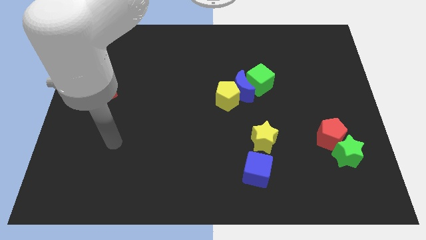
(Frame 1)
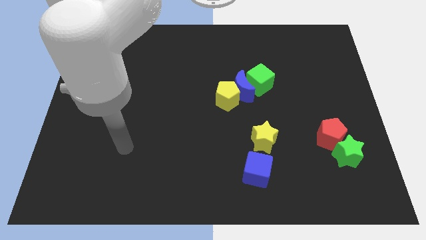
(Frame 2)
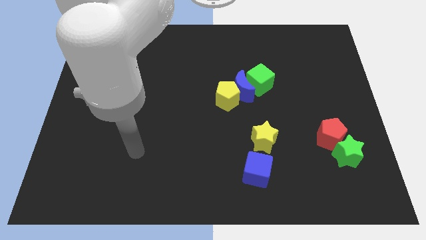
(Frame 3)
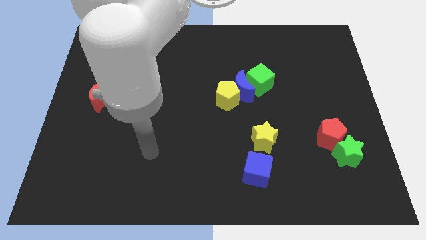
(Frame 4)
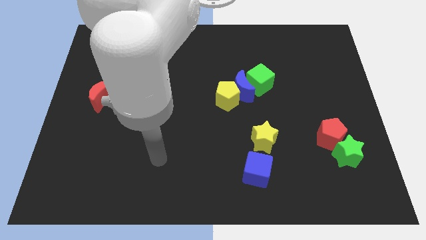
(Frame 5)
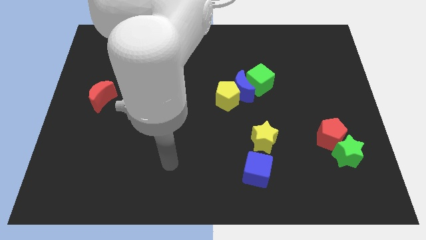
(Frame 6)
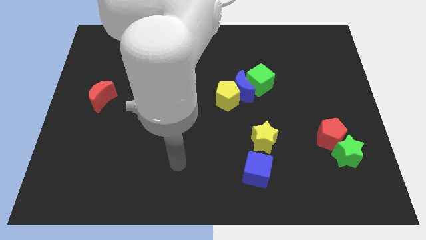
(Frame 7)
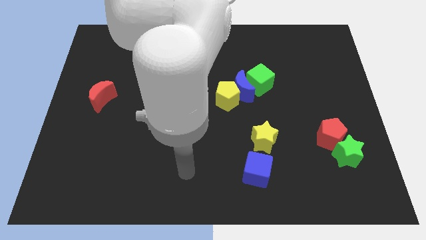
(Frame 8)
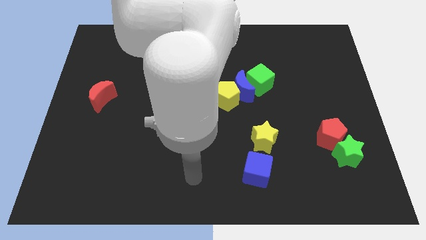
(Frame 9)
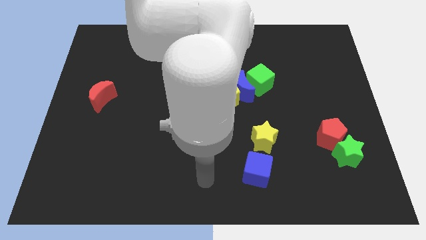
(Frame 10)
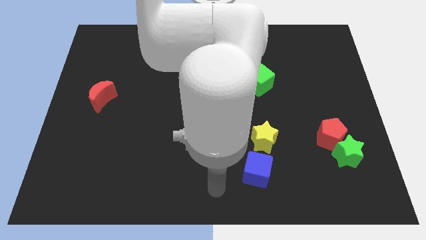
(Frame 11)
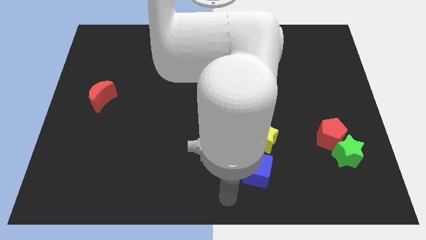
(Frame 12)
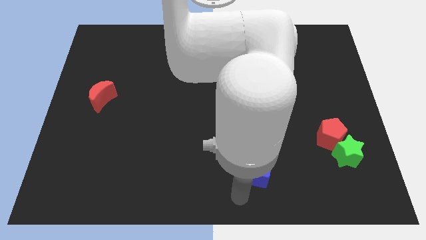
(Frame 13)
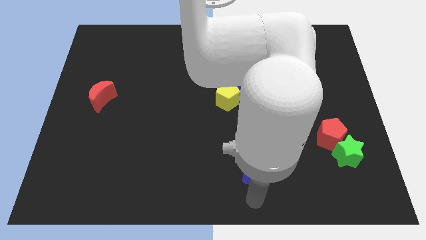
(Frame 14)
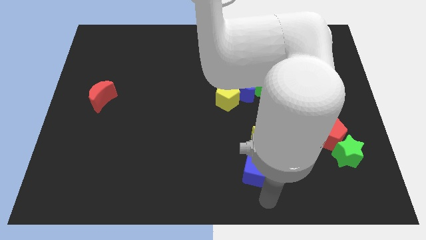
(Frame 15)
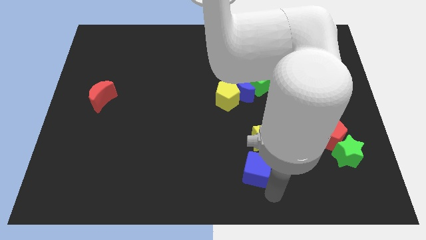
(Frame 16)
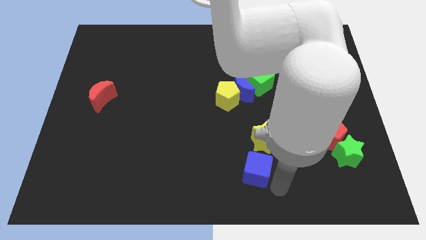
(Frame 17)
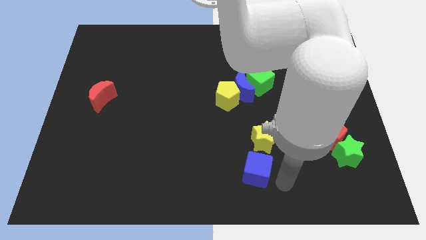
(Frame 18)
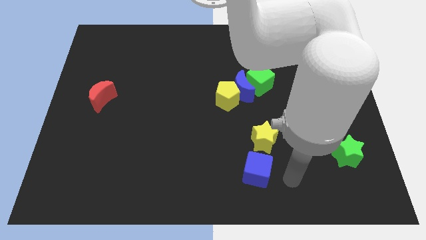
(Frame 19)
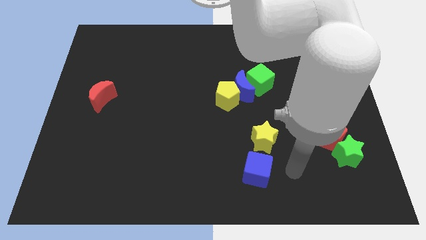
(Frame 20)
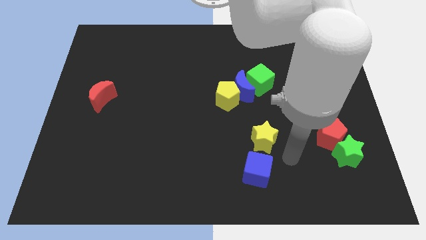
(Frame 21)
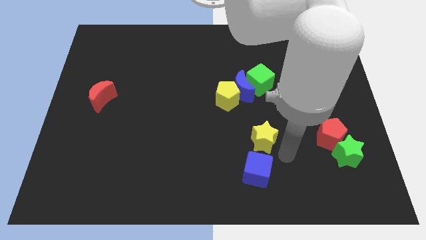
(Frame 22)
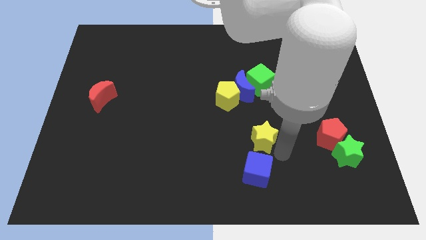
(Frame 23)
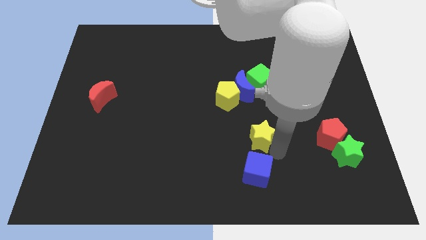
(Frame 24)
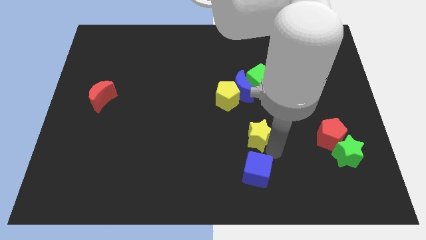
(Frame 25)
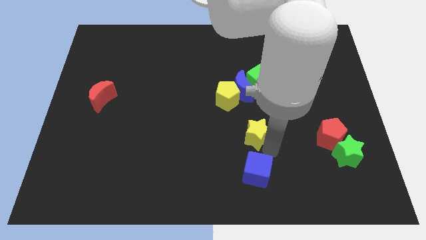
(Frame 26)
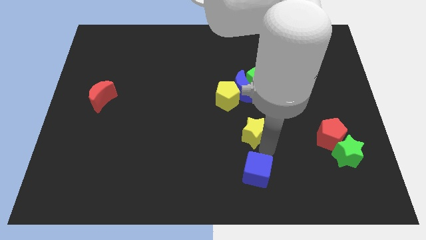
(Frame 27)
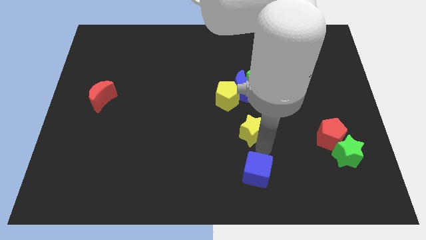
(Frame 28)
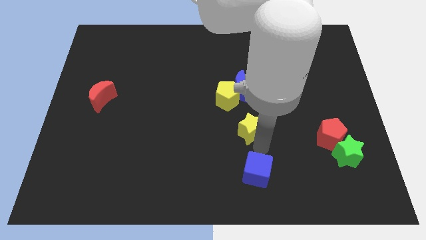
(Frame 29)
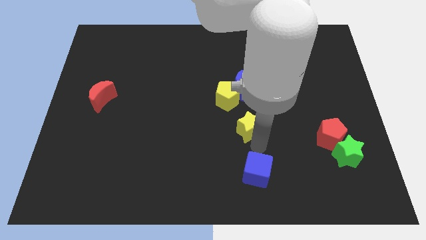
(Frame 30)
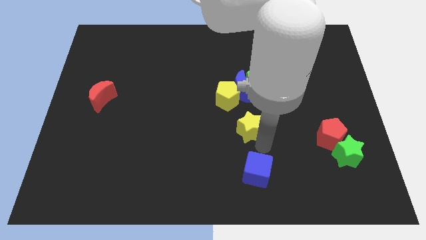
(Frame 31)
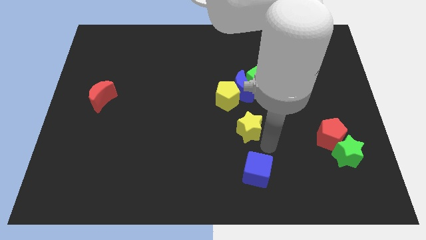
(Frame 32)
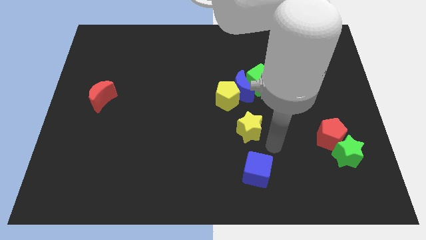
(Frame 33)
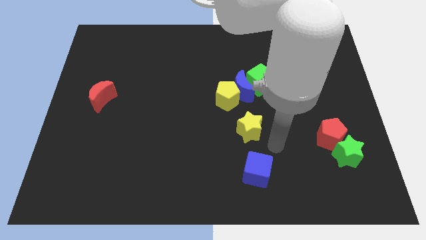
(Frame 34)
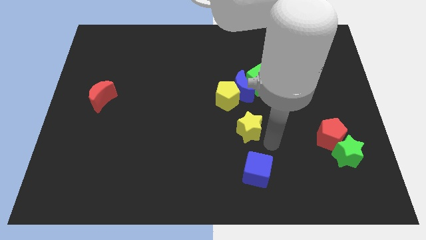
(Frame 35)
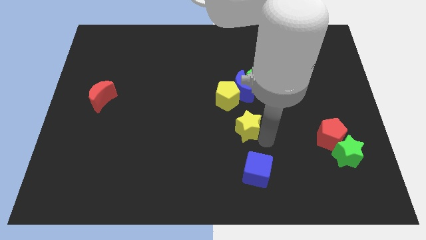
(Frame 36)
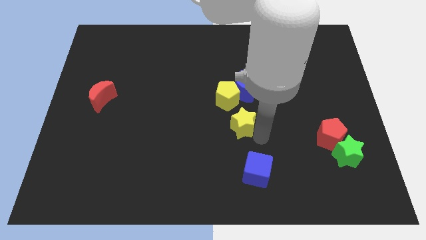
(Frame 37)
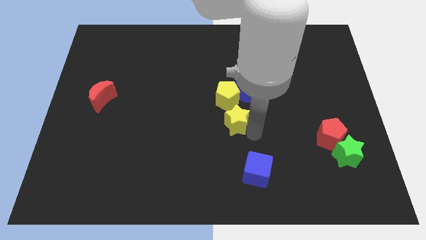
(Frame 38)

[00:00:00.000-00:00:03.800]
slightly push the yellow star up and left

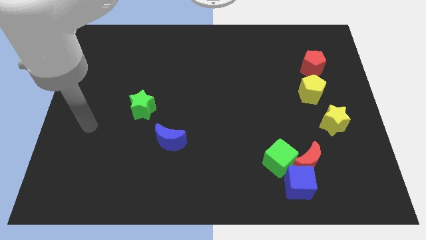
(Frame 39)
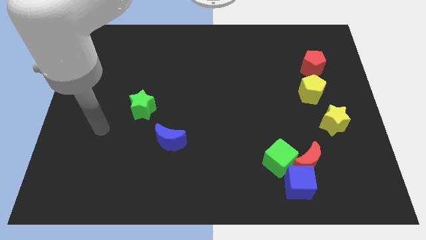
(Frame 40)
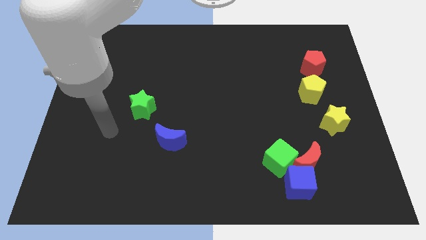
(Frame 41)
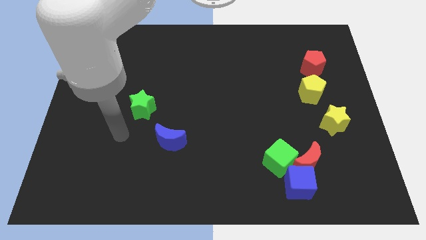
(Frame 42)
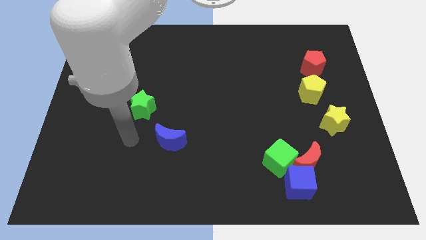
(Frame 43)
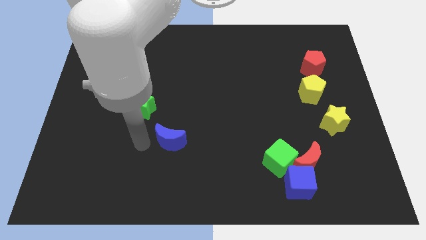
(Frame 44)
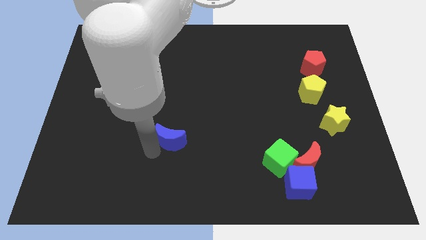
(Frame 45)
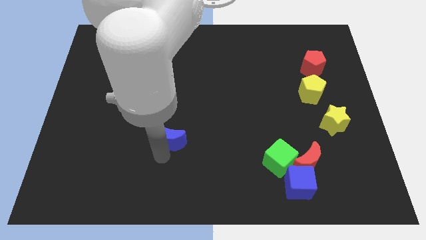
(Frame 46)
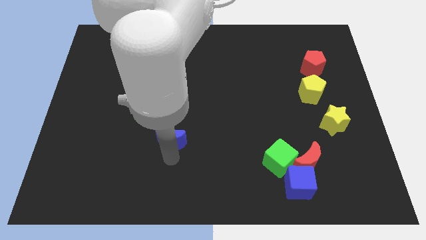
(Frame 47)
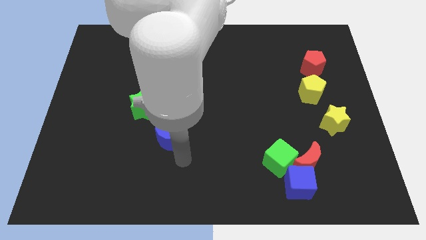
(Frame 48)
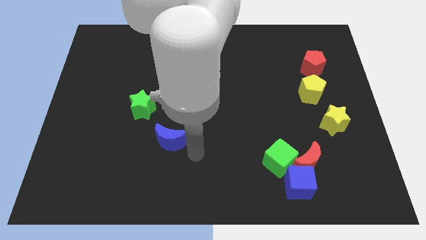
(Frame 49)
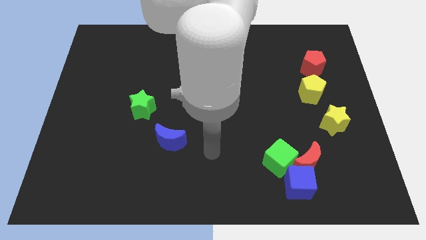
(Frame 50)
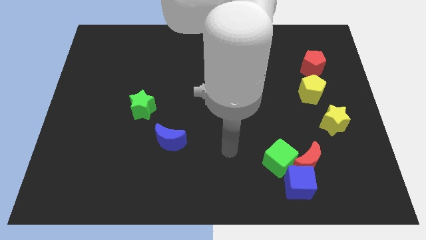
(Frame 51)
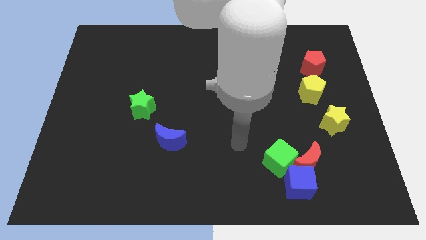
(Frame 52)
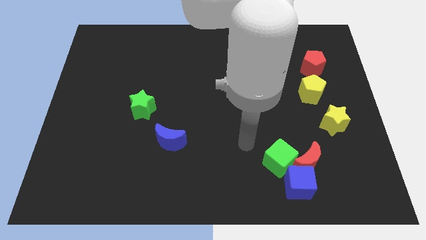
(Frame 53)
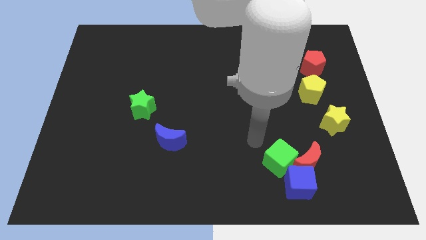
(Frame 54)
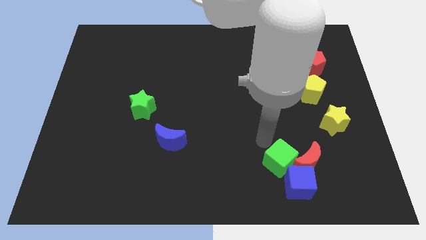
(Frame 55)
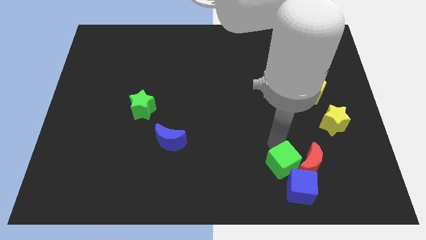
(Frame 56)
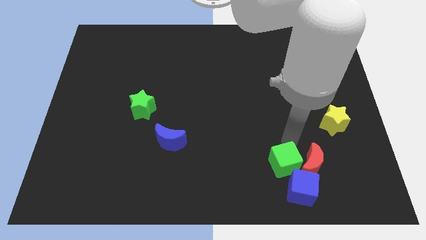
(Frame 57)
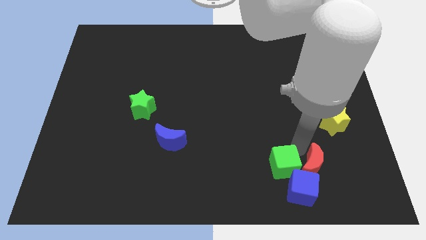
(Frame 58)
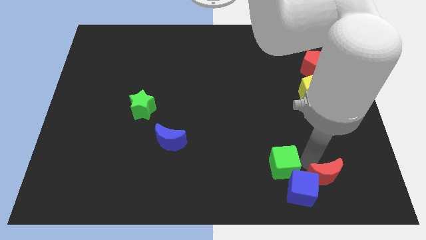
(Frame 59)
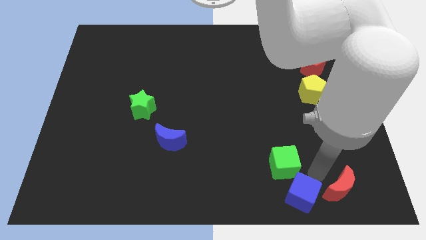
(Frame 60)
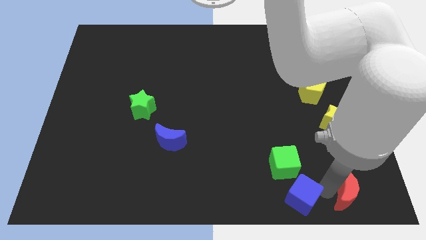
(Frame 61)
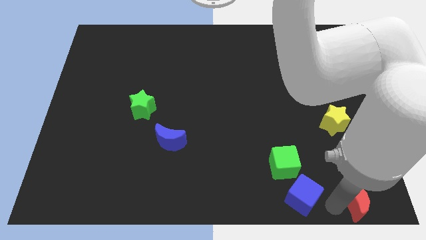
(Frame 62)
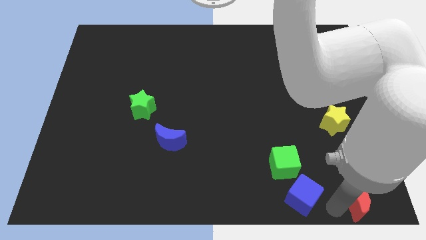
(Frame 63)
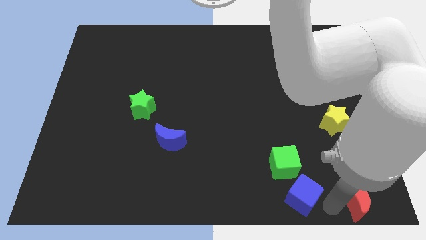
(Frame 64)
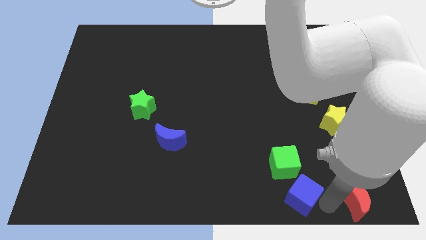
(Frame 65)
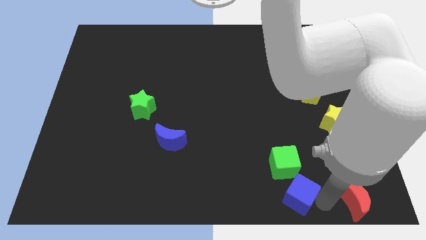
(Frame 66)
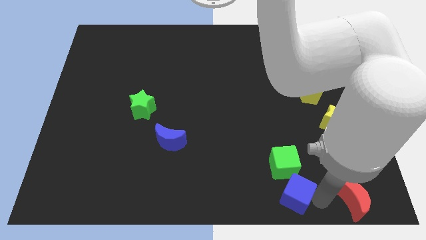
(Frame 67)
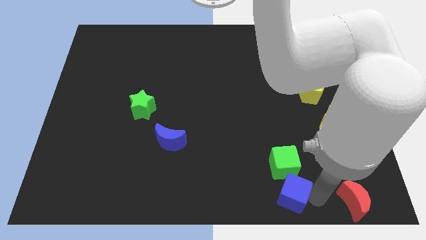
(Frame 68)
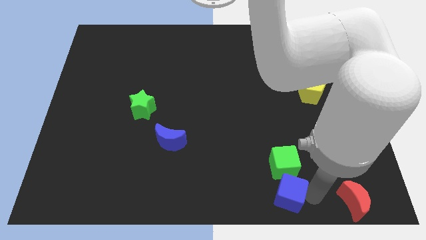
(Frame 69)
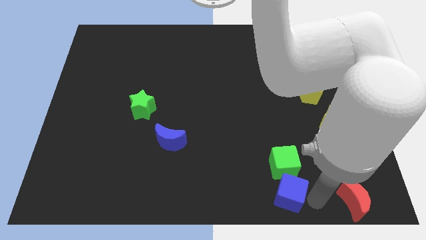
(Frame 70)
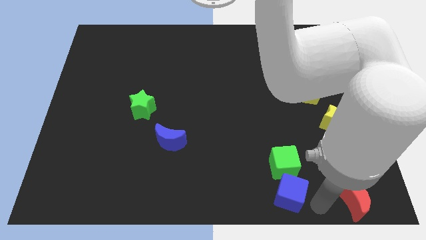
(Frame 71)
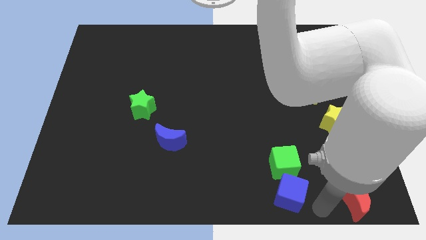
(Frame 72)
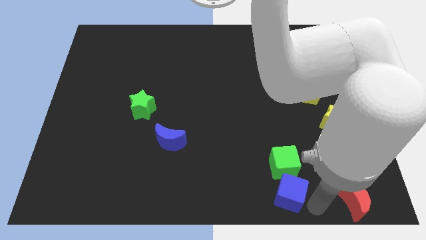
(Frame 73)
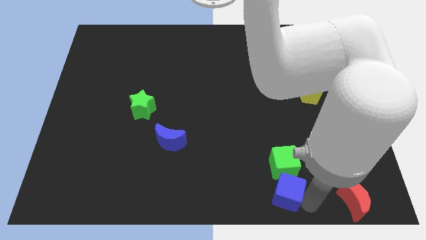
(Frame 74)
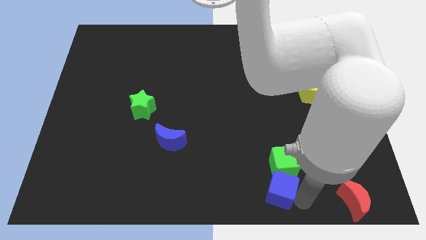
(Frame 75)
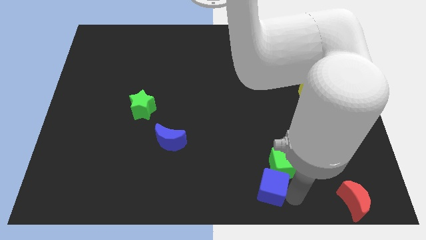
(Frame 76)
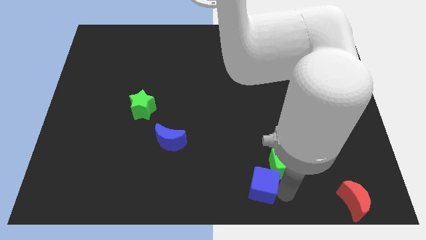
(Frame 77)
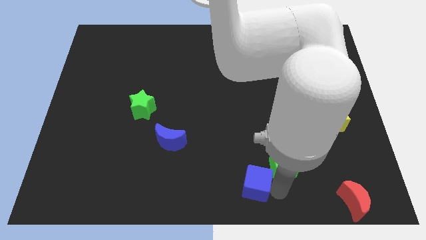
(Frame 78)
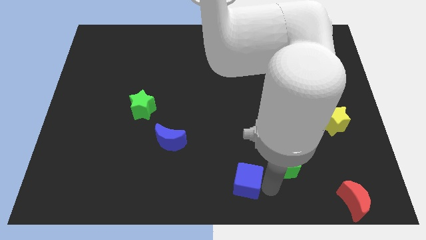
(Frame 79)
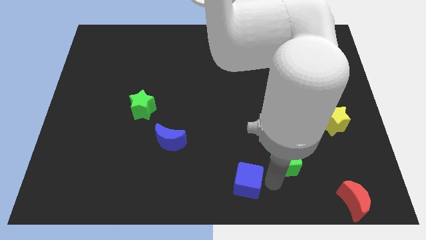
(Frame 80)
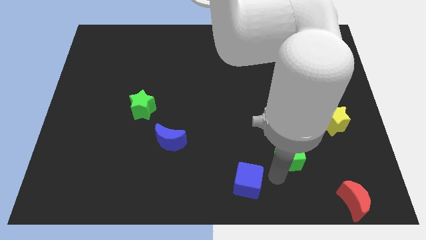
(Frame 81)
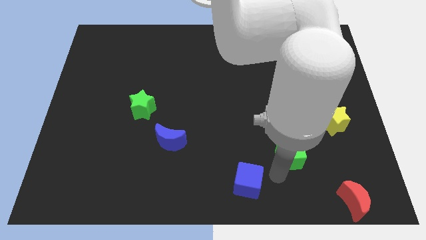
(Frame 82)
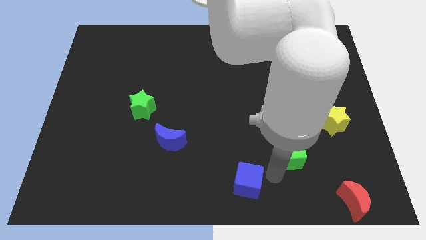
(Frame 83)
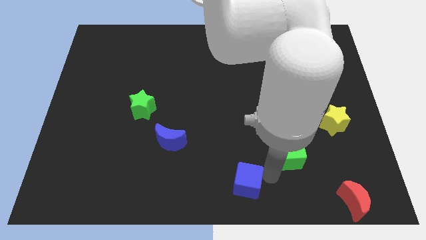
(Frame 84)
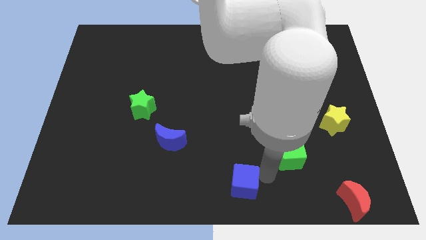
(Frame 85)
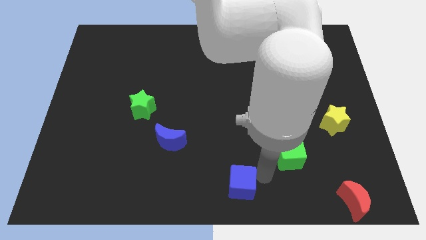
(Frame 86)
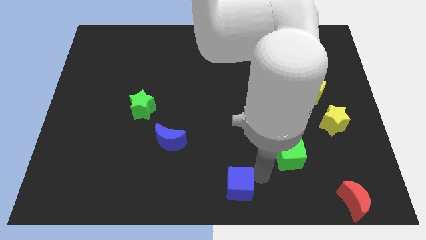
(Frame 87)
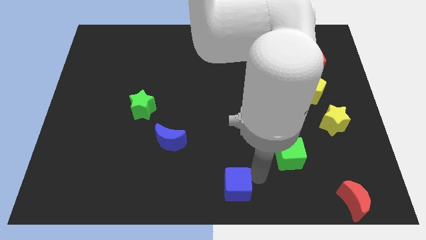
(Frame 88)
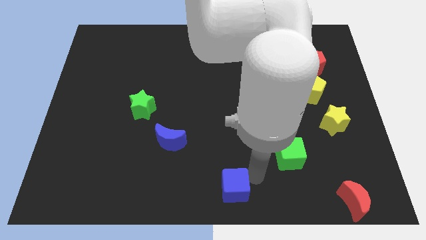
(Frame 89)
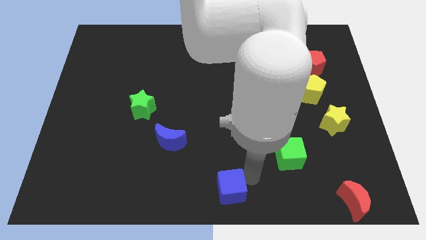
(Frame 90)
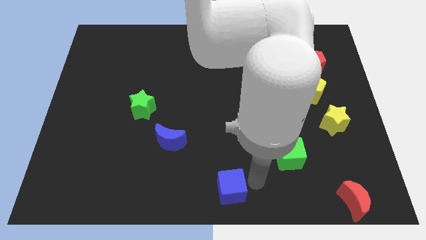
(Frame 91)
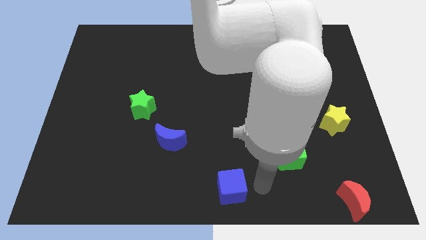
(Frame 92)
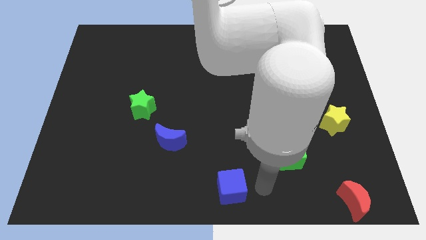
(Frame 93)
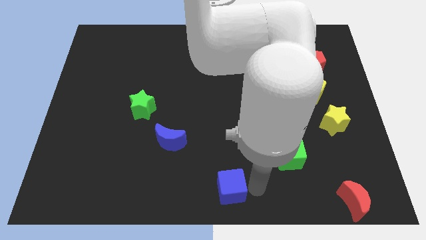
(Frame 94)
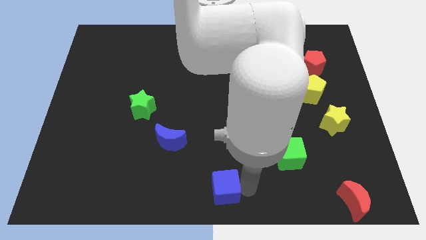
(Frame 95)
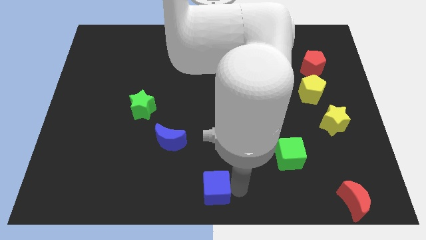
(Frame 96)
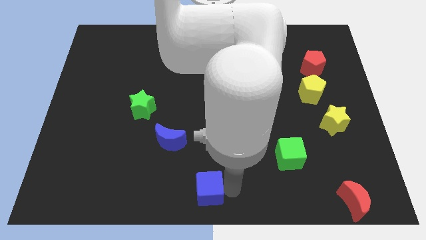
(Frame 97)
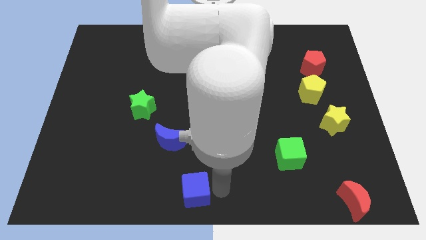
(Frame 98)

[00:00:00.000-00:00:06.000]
slide the blue cube left
